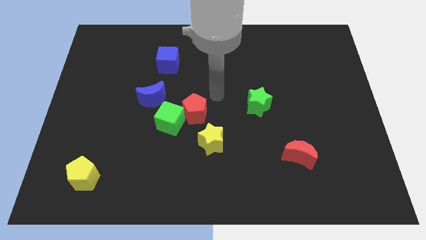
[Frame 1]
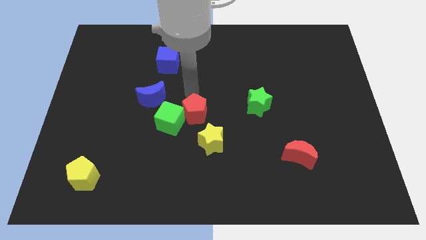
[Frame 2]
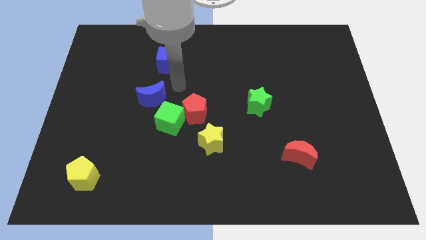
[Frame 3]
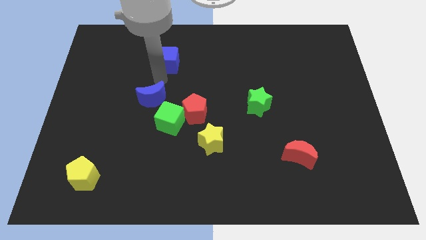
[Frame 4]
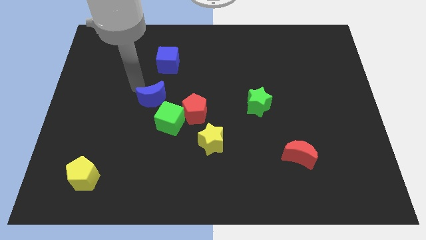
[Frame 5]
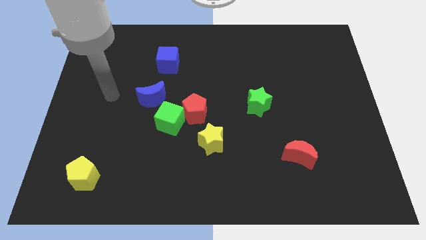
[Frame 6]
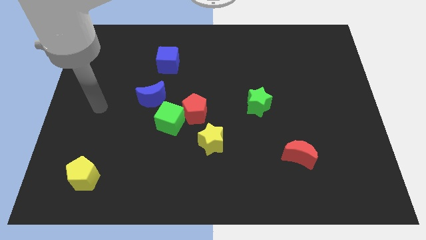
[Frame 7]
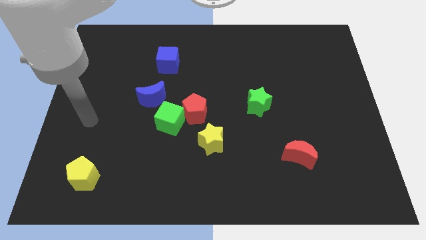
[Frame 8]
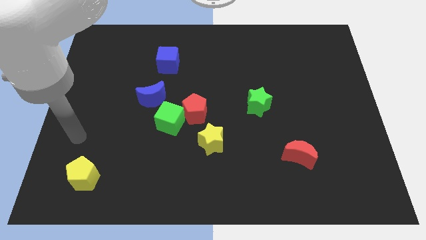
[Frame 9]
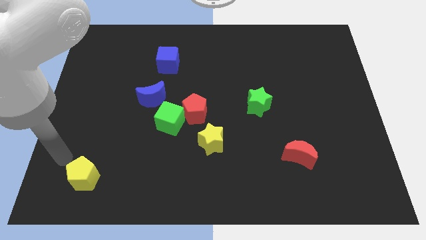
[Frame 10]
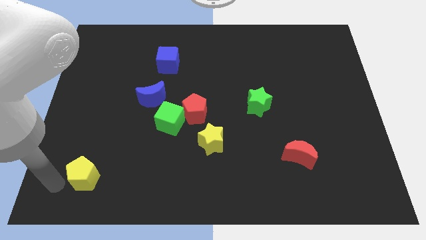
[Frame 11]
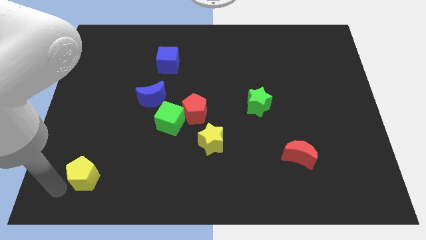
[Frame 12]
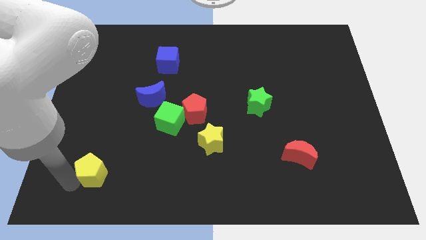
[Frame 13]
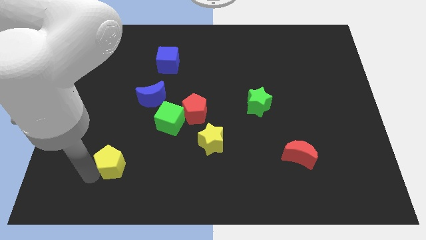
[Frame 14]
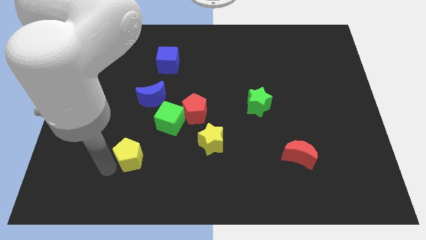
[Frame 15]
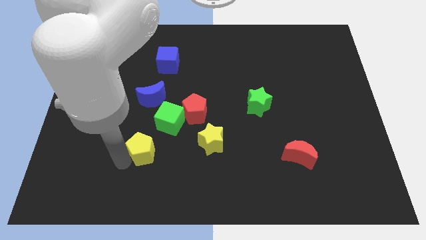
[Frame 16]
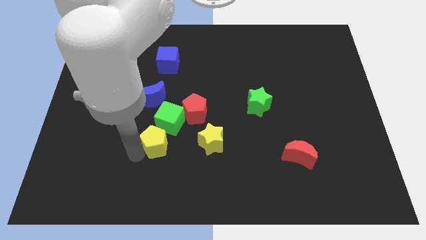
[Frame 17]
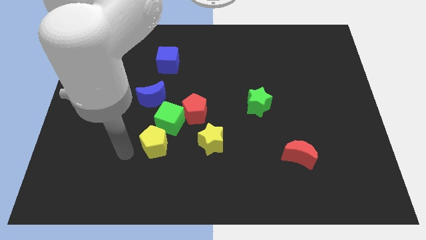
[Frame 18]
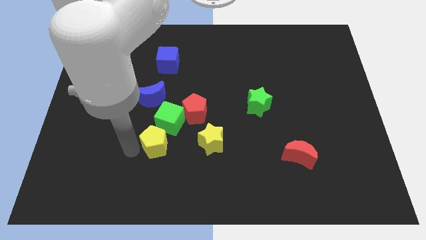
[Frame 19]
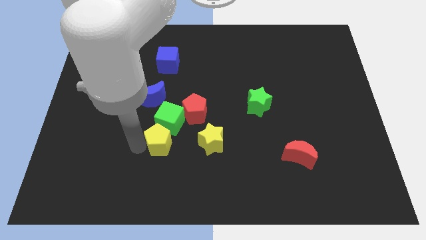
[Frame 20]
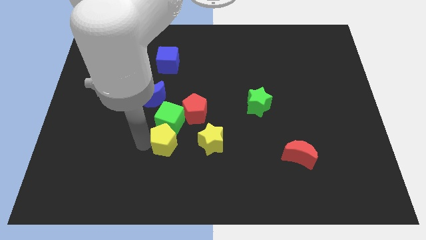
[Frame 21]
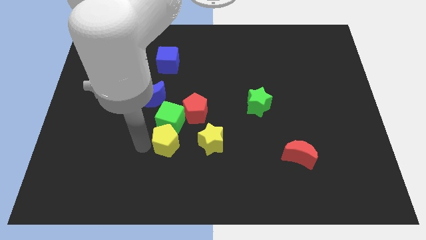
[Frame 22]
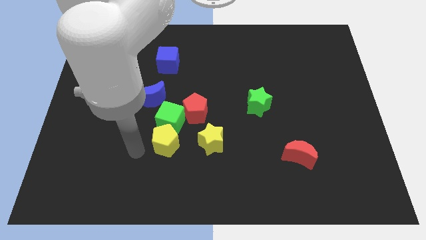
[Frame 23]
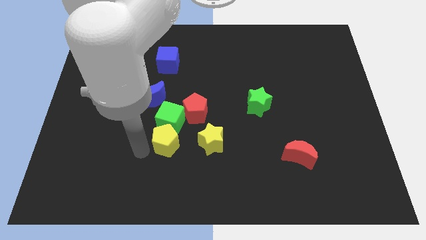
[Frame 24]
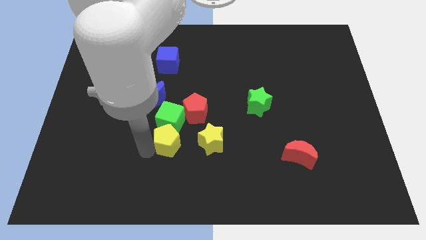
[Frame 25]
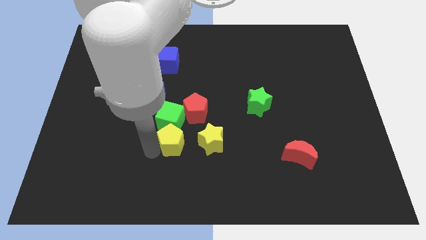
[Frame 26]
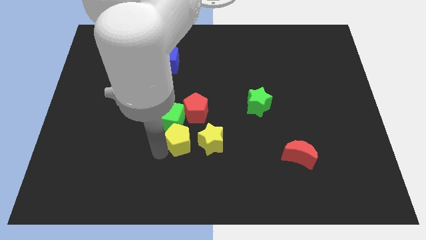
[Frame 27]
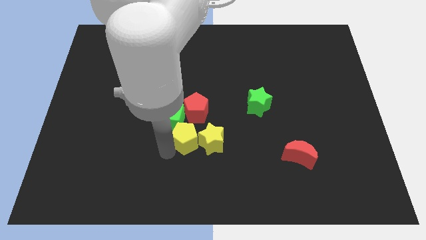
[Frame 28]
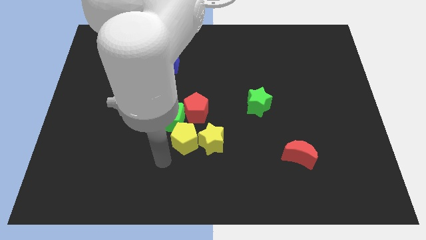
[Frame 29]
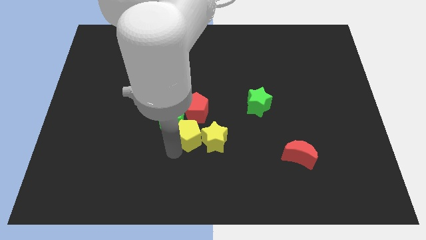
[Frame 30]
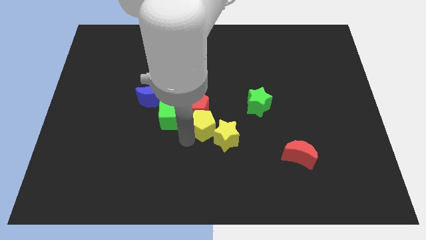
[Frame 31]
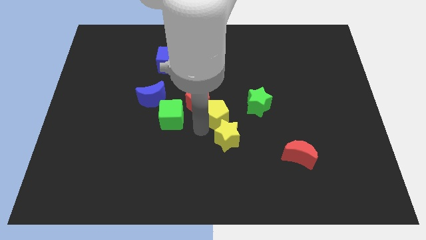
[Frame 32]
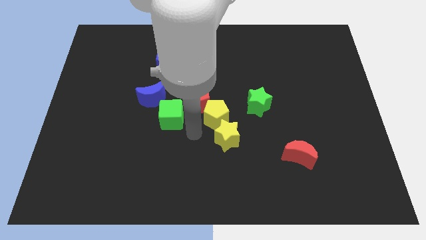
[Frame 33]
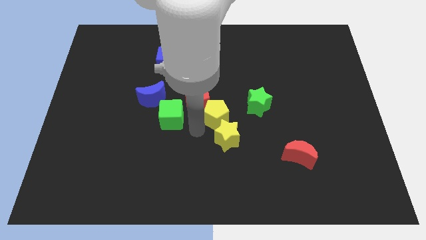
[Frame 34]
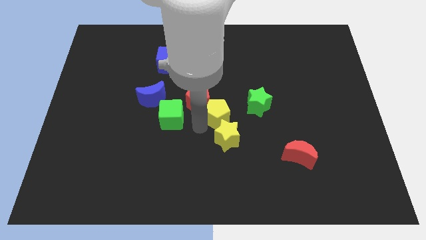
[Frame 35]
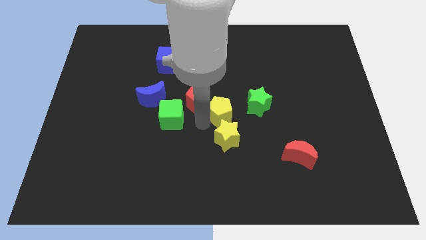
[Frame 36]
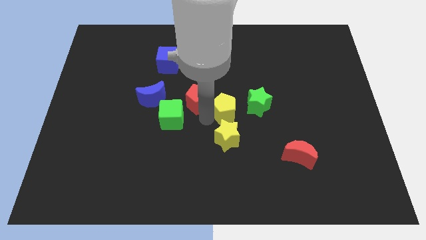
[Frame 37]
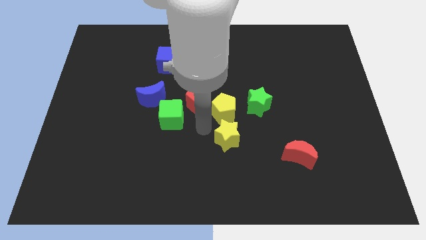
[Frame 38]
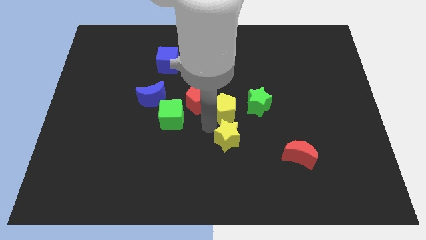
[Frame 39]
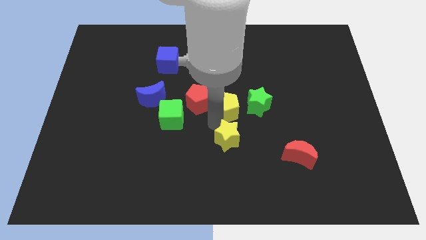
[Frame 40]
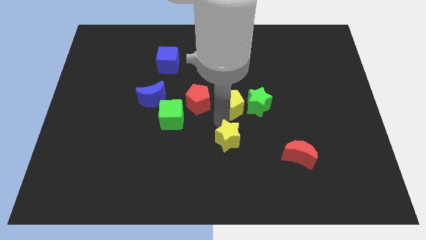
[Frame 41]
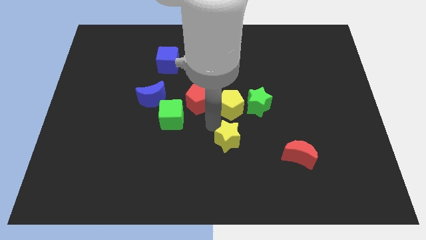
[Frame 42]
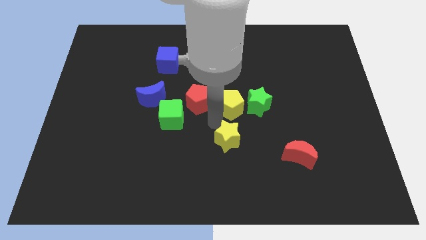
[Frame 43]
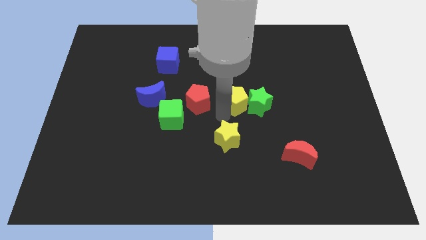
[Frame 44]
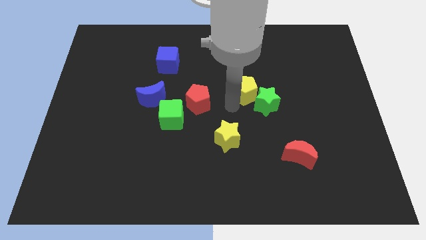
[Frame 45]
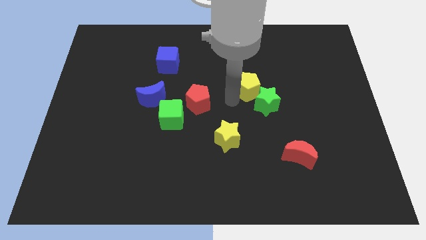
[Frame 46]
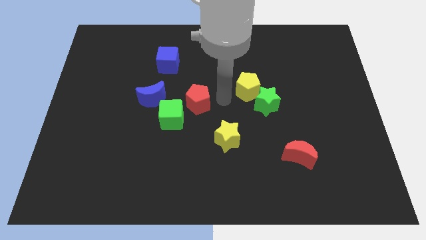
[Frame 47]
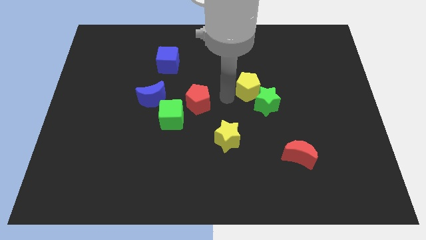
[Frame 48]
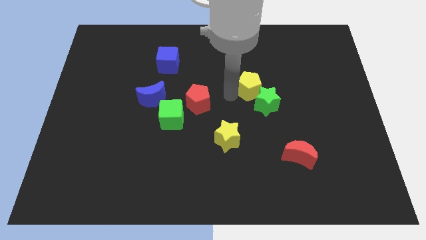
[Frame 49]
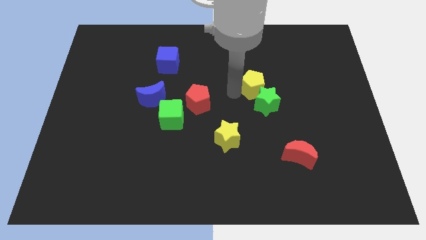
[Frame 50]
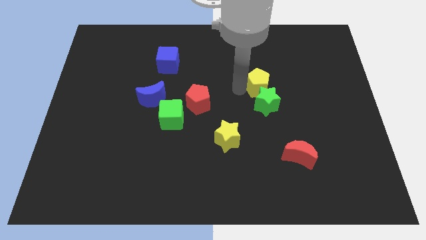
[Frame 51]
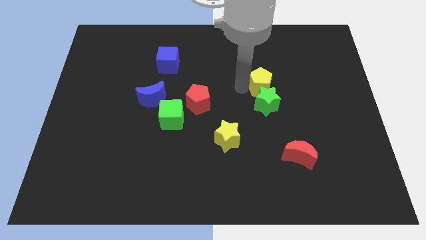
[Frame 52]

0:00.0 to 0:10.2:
put the yellow pentagon diagonally up and to the right of the green star

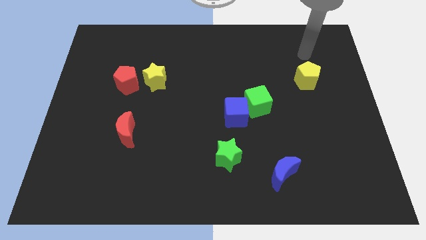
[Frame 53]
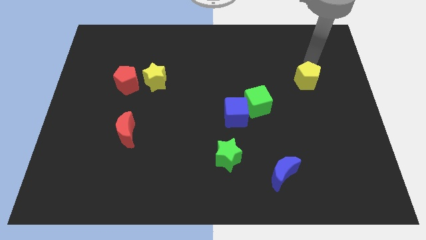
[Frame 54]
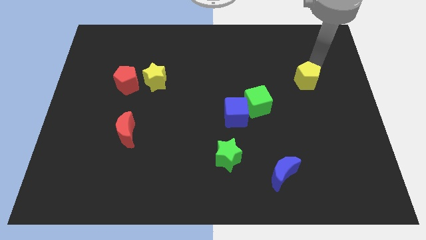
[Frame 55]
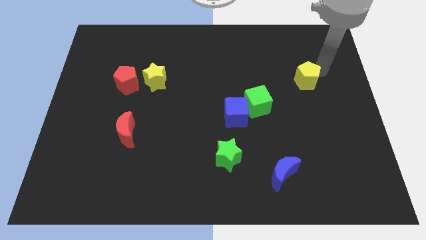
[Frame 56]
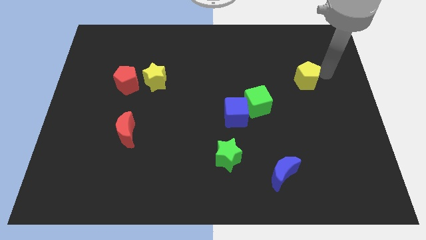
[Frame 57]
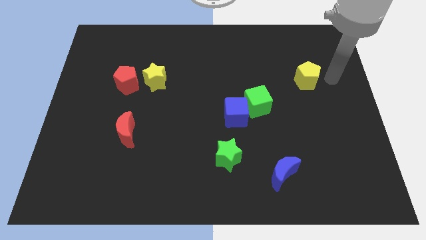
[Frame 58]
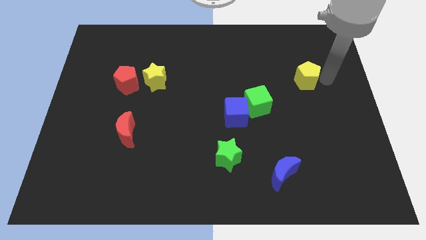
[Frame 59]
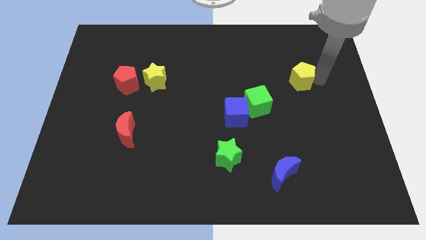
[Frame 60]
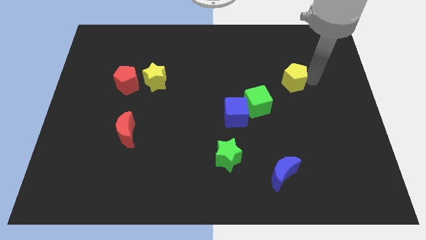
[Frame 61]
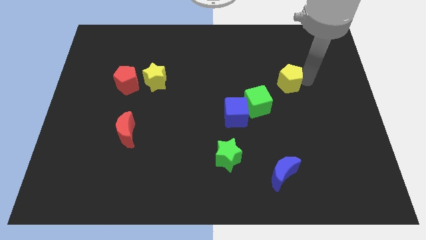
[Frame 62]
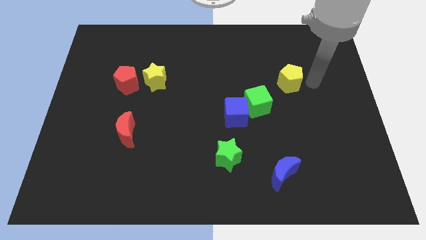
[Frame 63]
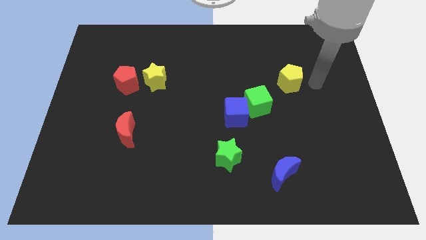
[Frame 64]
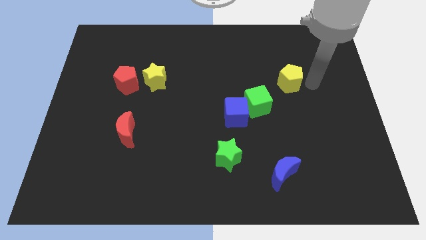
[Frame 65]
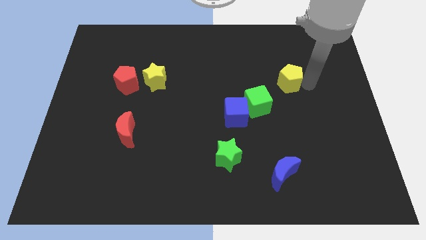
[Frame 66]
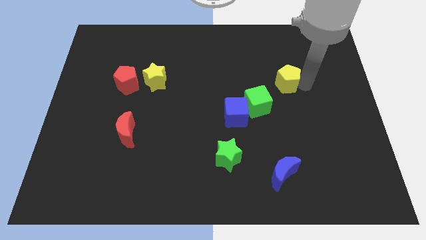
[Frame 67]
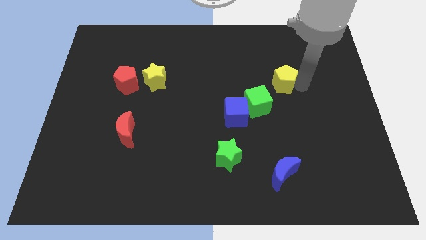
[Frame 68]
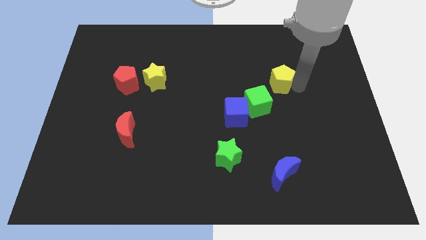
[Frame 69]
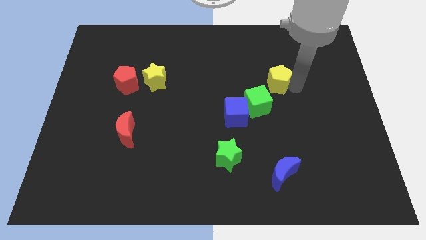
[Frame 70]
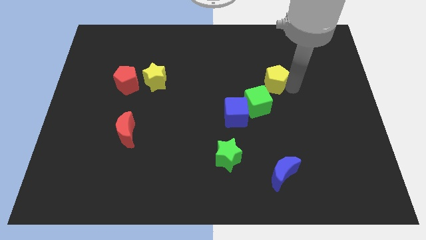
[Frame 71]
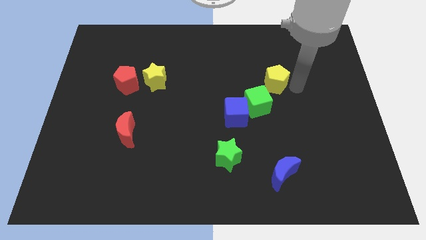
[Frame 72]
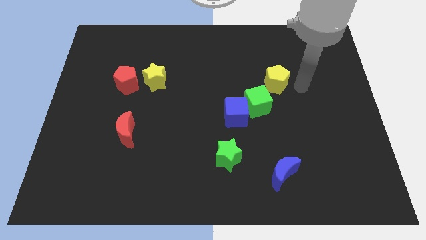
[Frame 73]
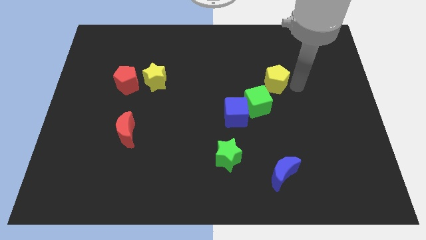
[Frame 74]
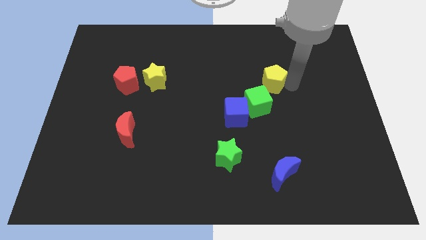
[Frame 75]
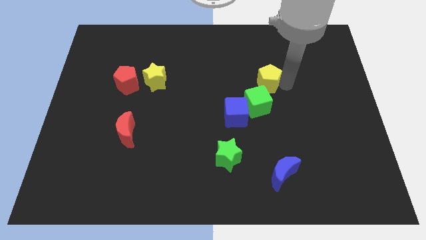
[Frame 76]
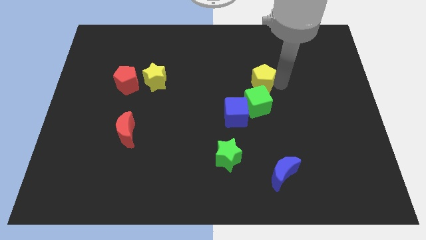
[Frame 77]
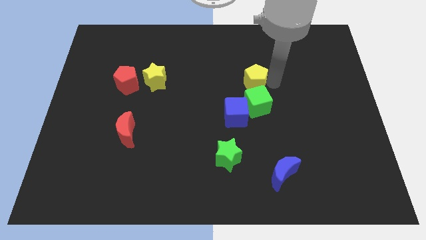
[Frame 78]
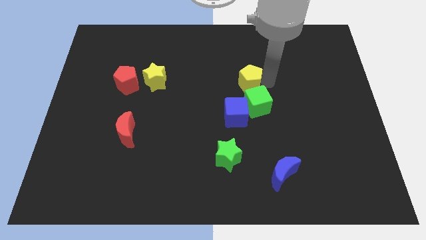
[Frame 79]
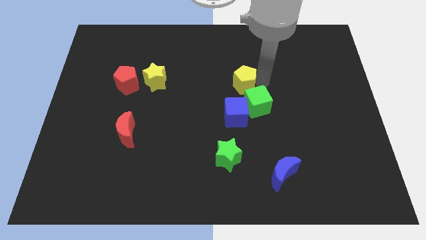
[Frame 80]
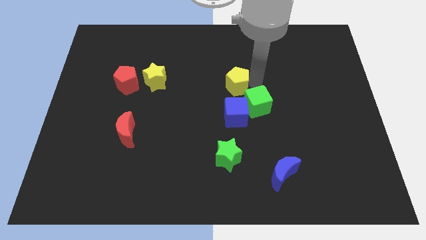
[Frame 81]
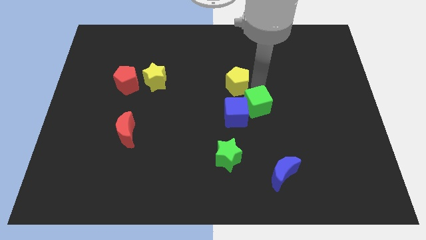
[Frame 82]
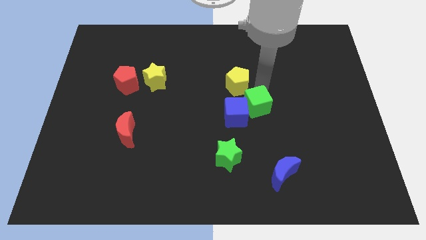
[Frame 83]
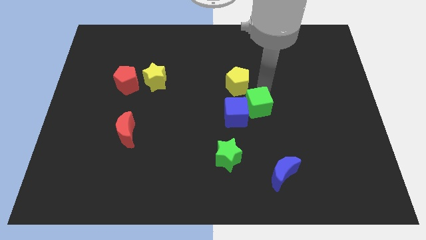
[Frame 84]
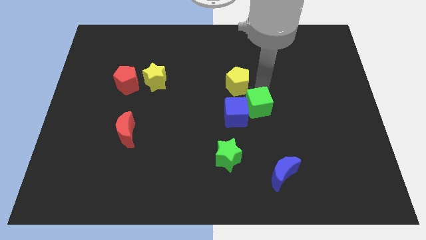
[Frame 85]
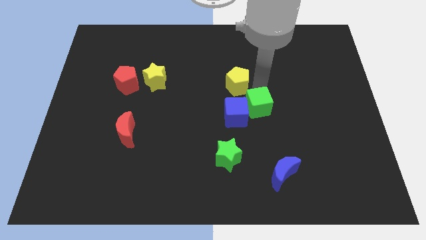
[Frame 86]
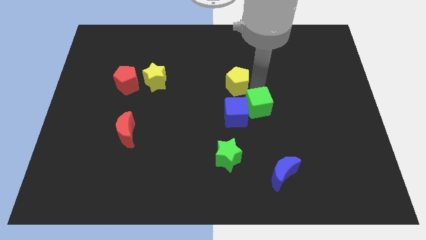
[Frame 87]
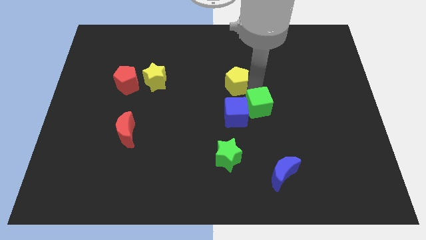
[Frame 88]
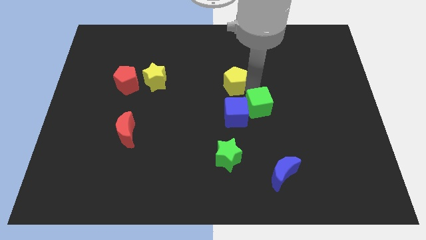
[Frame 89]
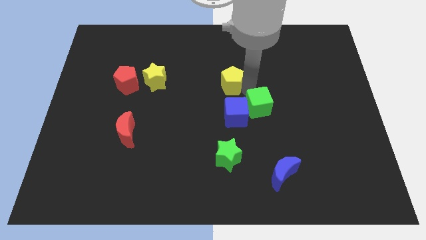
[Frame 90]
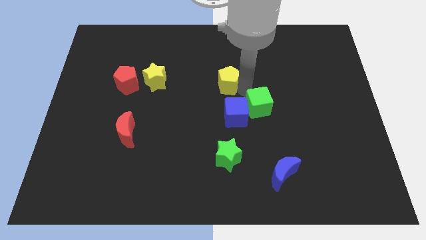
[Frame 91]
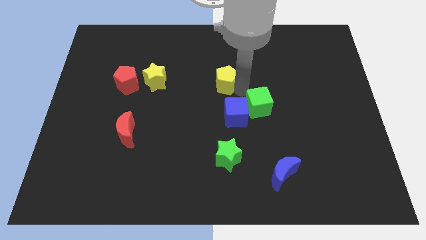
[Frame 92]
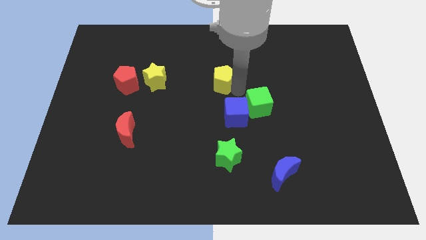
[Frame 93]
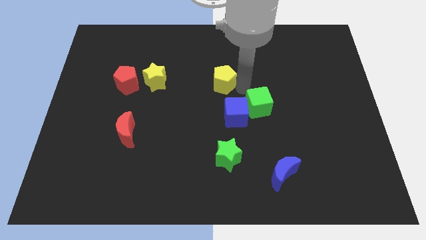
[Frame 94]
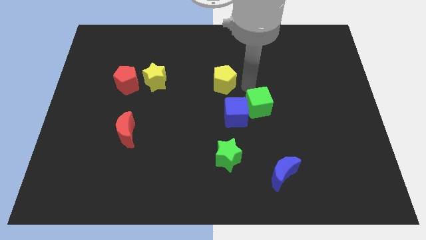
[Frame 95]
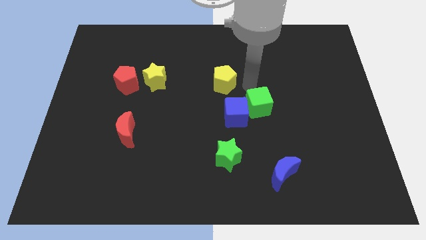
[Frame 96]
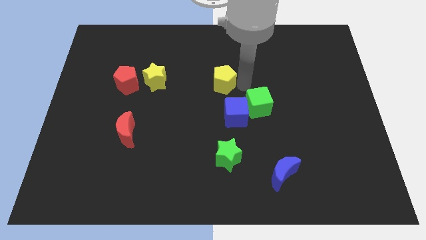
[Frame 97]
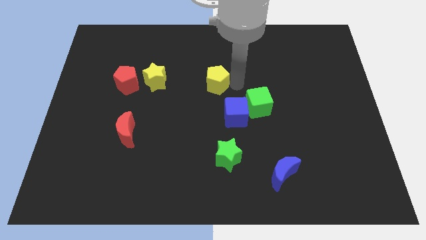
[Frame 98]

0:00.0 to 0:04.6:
push the yellow pentagon to the right side of the yellow star
